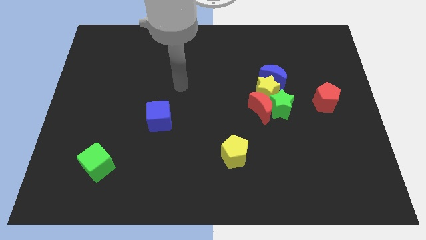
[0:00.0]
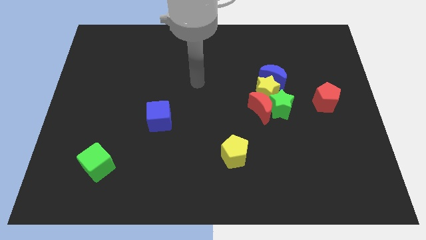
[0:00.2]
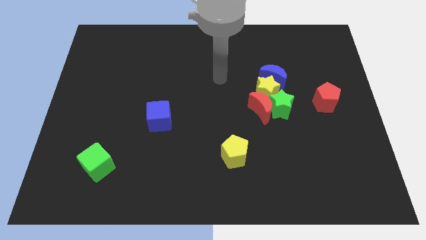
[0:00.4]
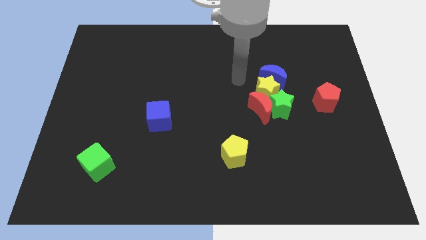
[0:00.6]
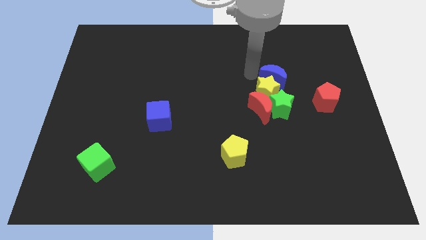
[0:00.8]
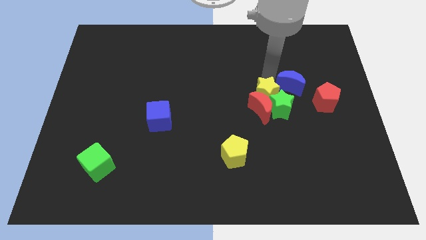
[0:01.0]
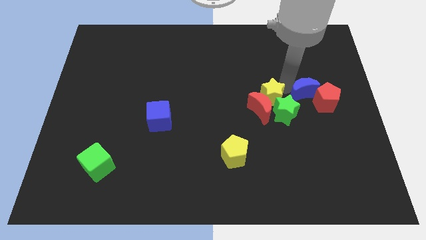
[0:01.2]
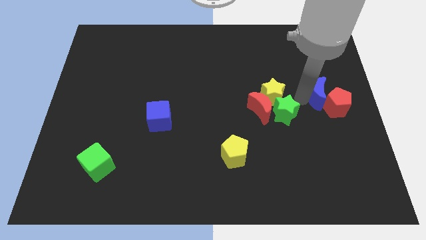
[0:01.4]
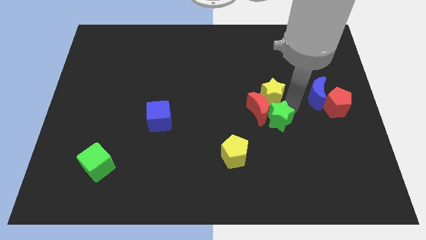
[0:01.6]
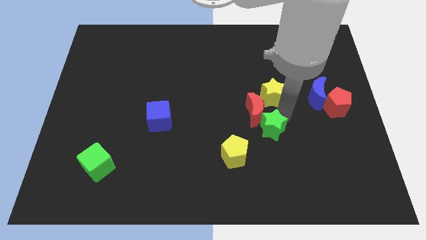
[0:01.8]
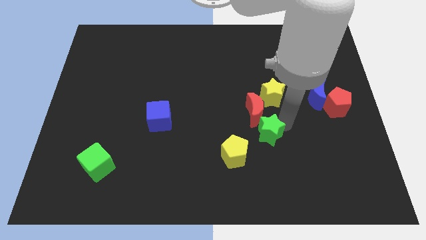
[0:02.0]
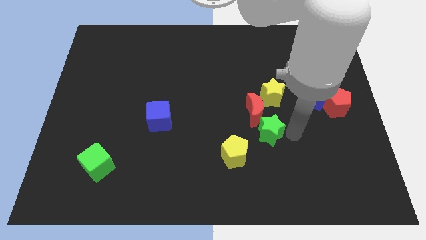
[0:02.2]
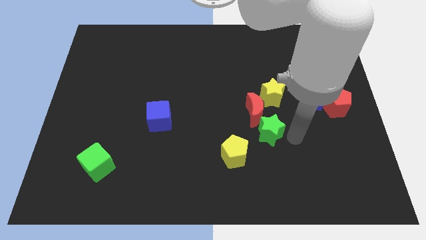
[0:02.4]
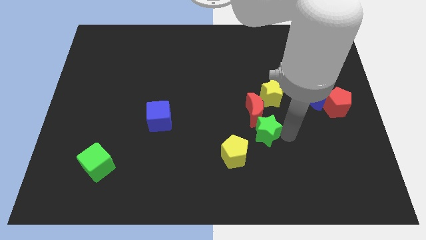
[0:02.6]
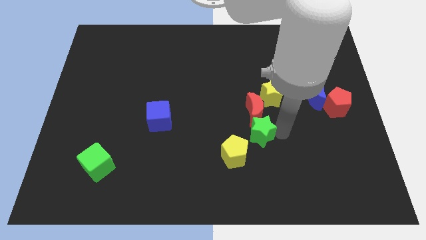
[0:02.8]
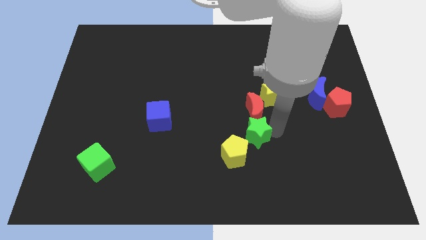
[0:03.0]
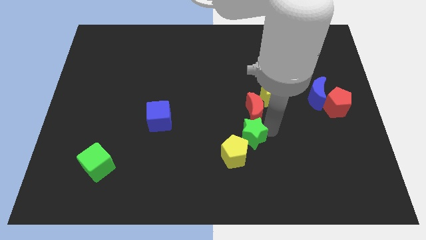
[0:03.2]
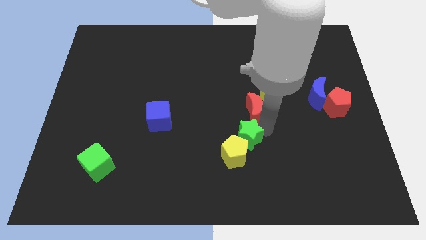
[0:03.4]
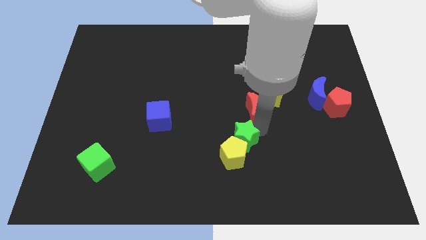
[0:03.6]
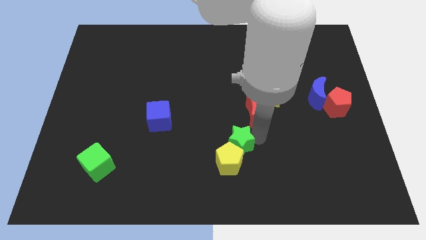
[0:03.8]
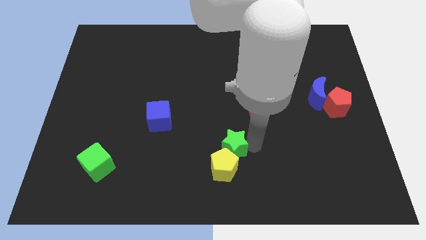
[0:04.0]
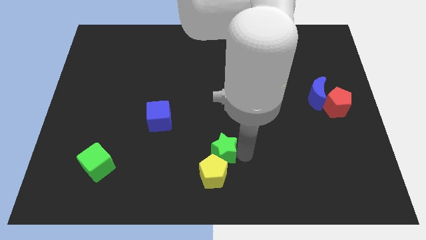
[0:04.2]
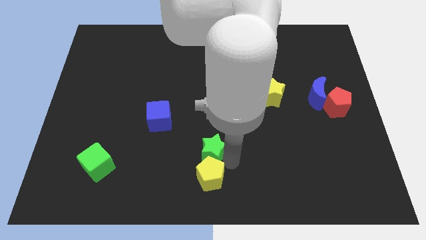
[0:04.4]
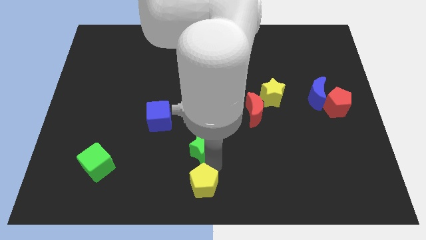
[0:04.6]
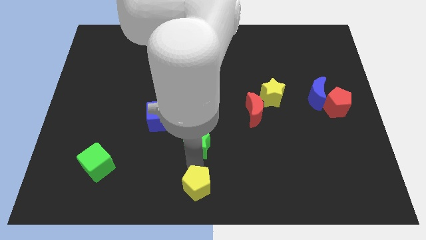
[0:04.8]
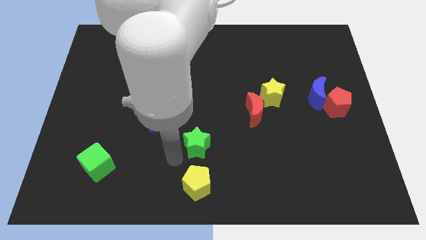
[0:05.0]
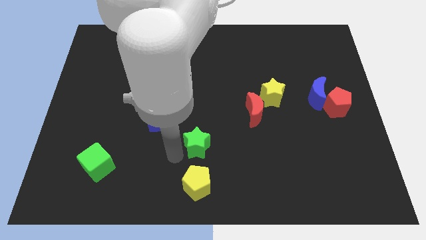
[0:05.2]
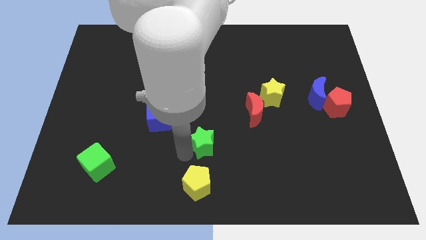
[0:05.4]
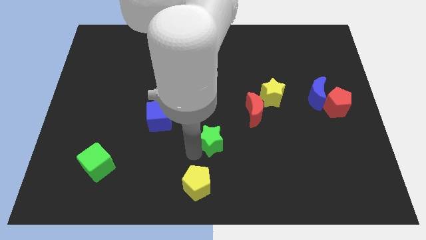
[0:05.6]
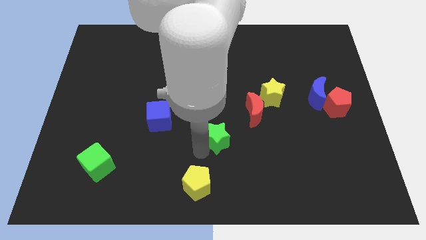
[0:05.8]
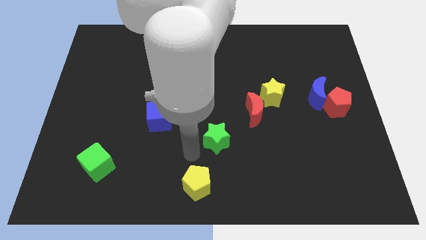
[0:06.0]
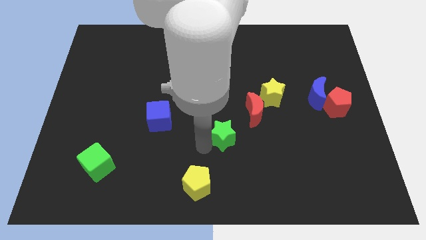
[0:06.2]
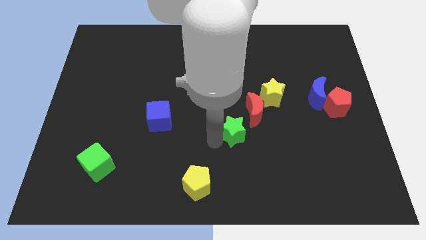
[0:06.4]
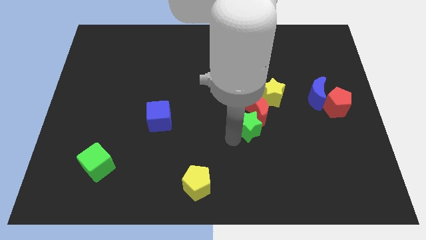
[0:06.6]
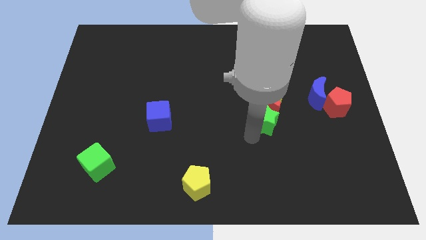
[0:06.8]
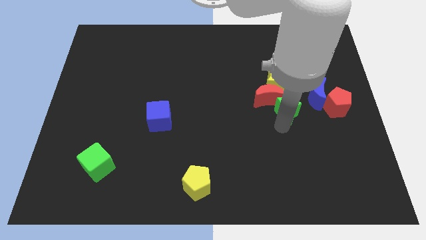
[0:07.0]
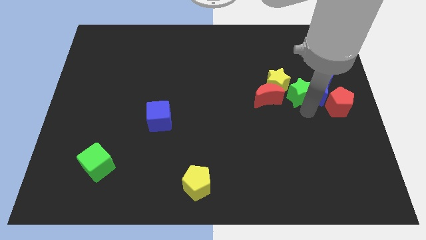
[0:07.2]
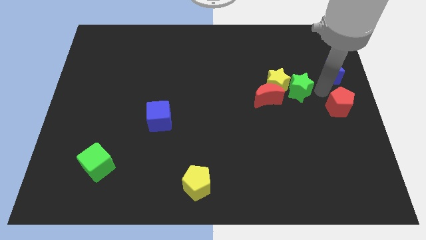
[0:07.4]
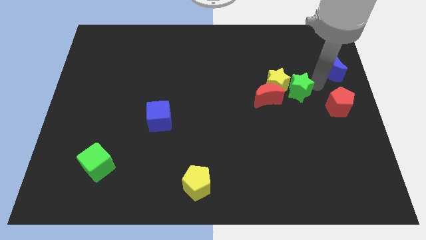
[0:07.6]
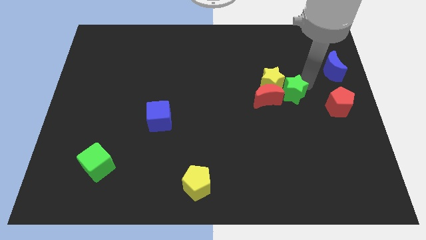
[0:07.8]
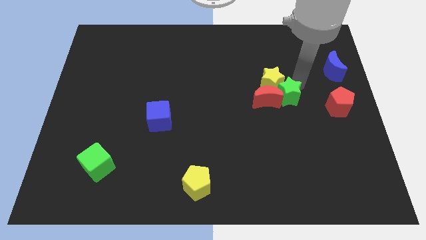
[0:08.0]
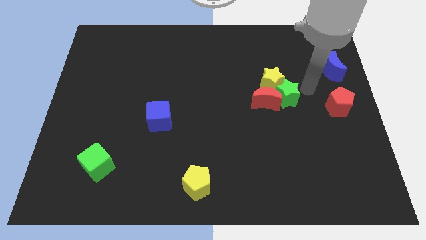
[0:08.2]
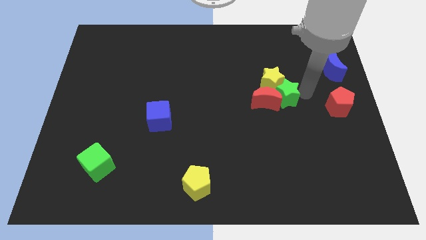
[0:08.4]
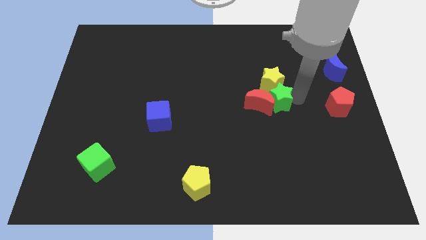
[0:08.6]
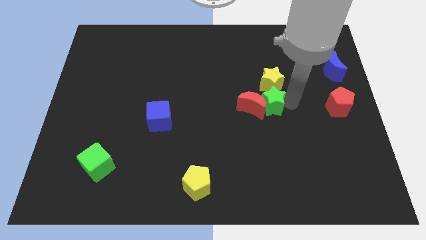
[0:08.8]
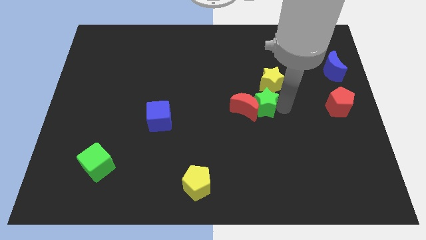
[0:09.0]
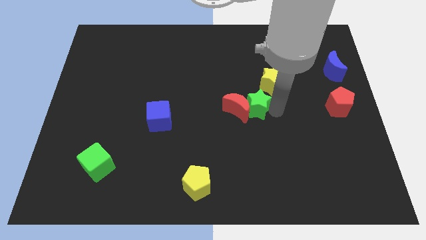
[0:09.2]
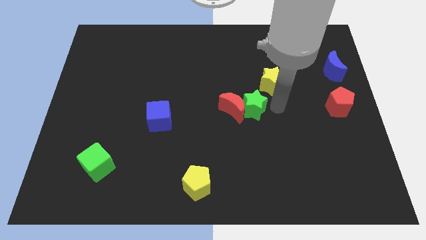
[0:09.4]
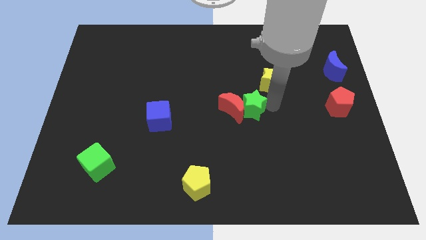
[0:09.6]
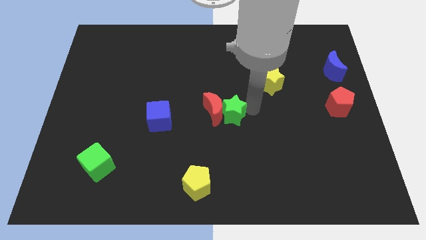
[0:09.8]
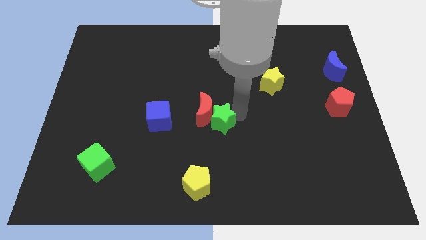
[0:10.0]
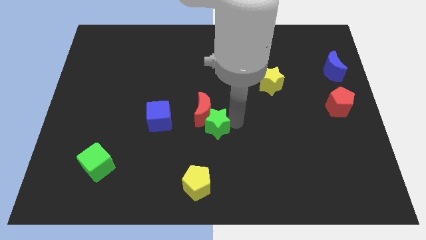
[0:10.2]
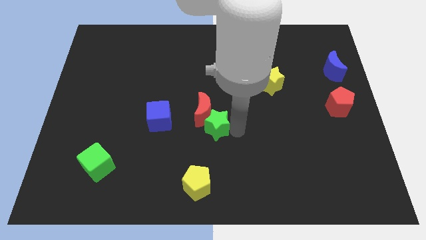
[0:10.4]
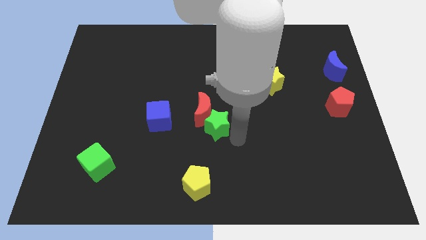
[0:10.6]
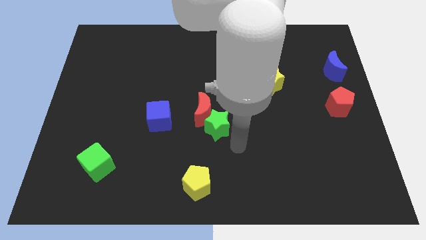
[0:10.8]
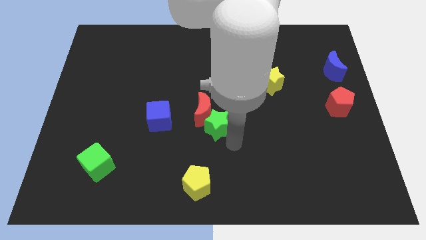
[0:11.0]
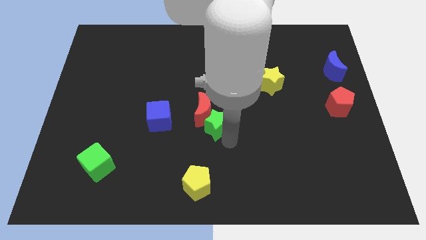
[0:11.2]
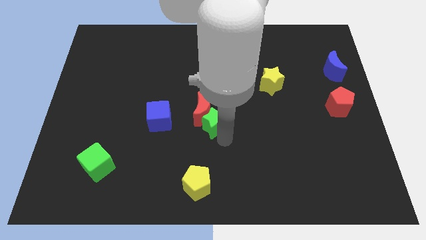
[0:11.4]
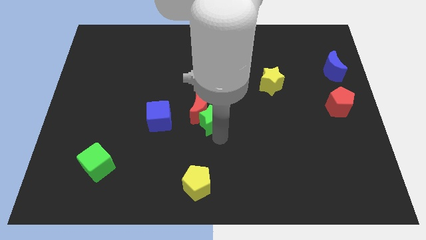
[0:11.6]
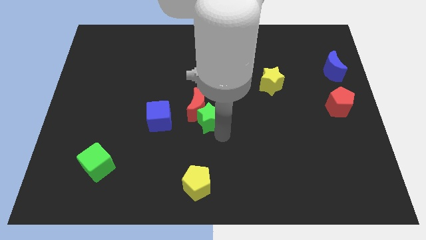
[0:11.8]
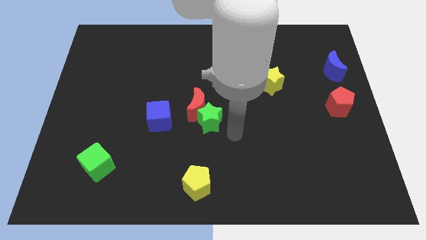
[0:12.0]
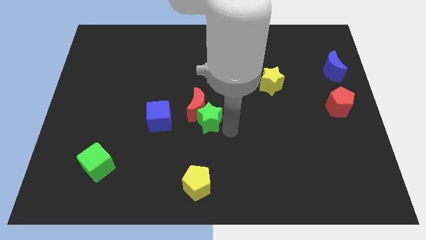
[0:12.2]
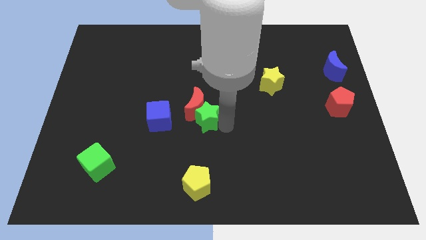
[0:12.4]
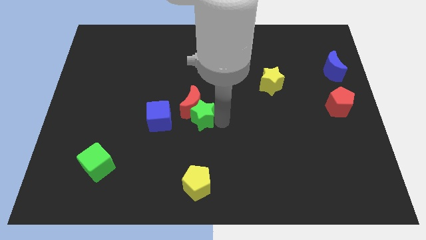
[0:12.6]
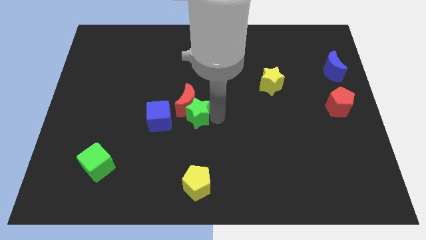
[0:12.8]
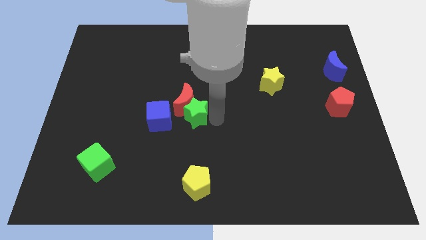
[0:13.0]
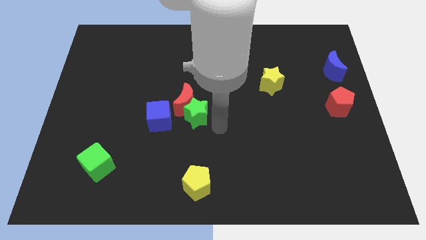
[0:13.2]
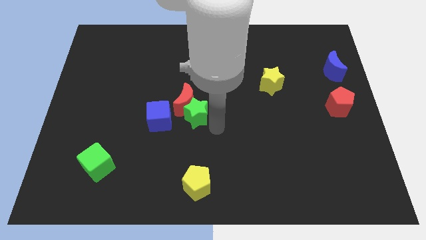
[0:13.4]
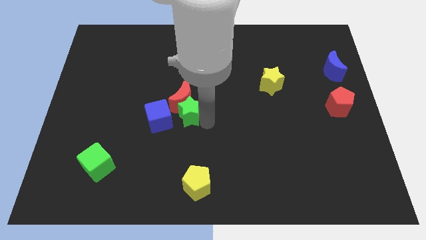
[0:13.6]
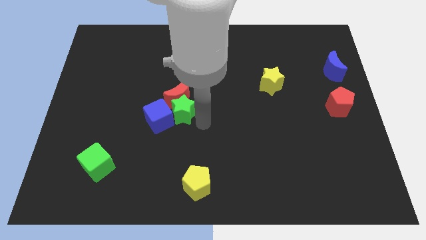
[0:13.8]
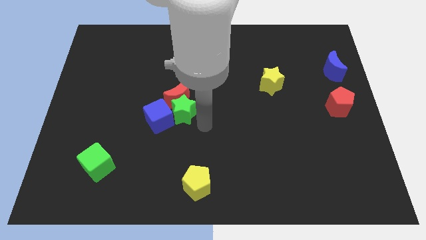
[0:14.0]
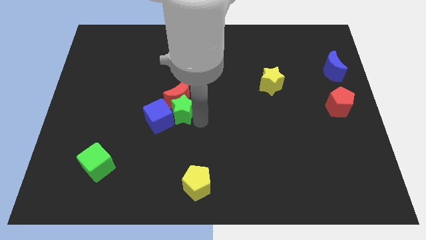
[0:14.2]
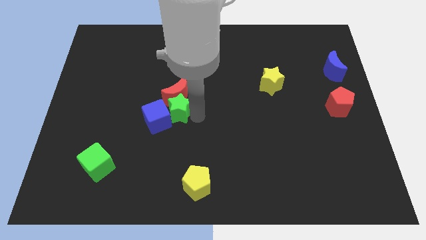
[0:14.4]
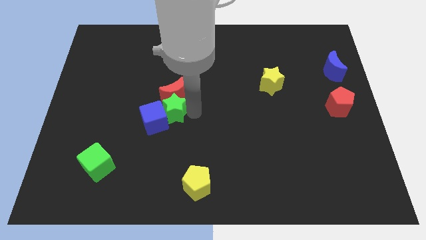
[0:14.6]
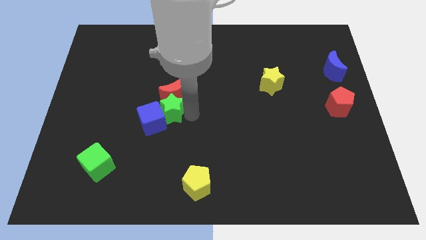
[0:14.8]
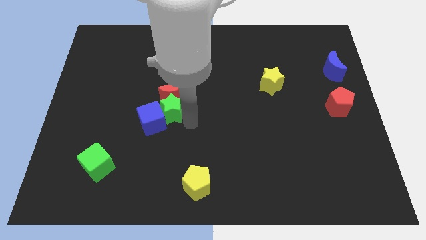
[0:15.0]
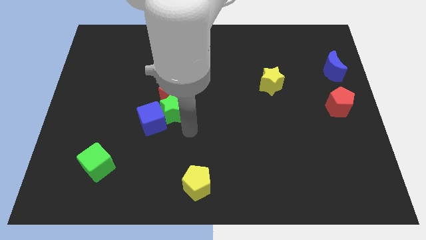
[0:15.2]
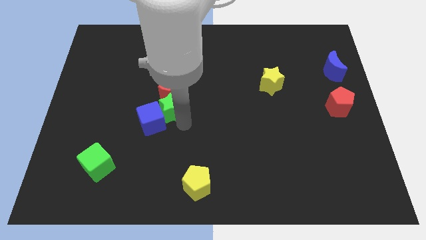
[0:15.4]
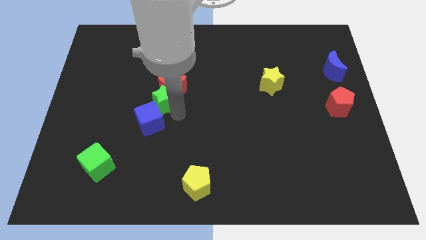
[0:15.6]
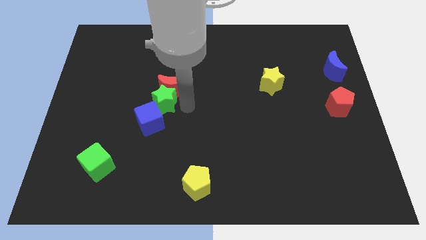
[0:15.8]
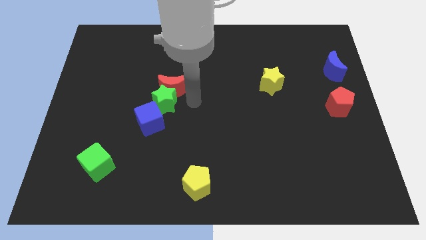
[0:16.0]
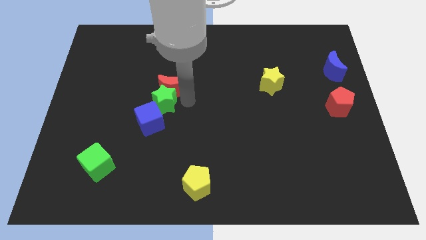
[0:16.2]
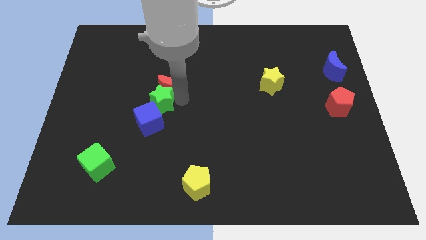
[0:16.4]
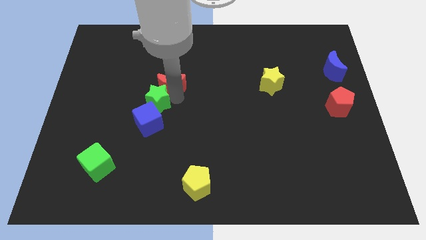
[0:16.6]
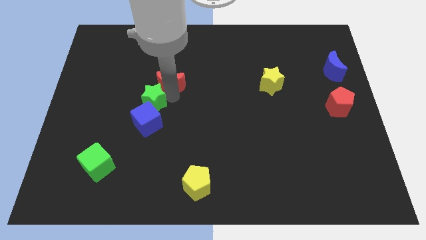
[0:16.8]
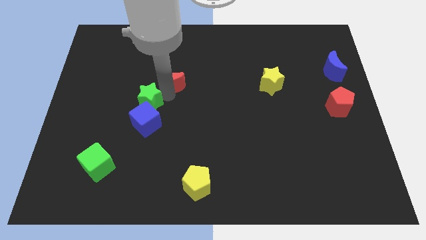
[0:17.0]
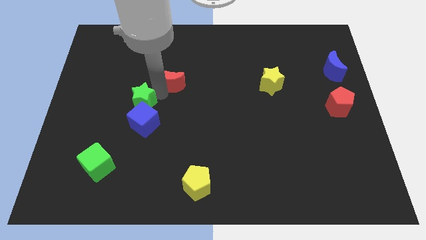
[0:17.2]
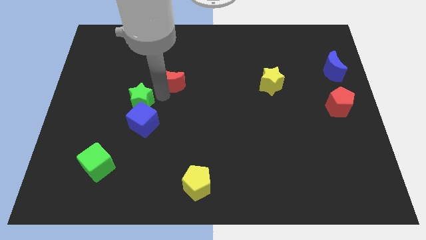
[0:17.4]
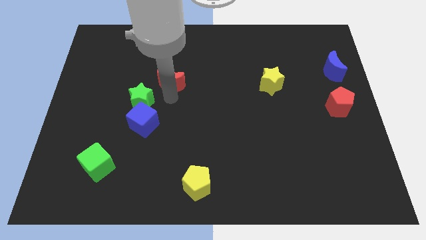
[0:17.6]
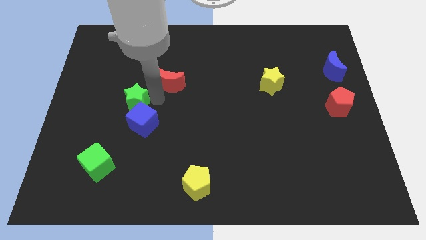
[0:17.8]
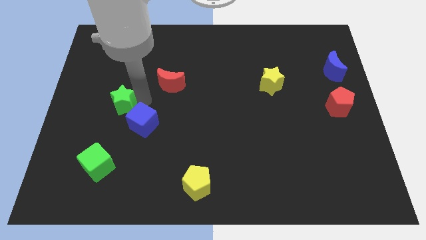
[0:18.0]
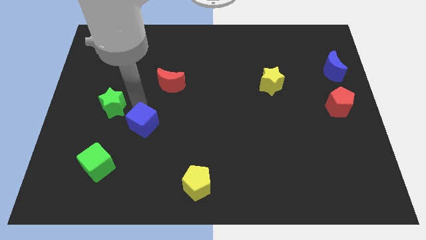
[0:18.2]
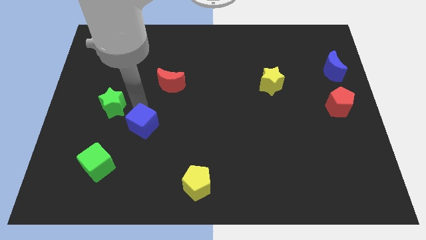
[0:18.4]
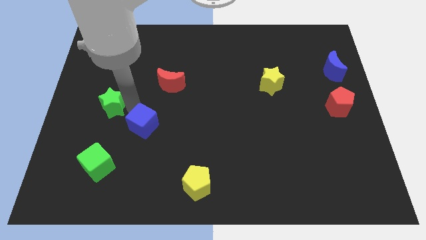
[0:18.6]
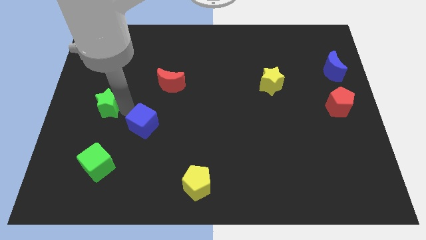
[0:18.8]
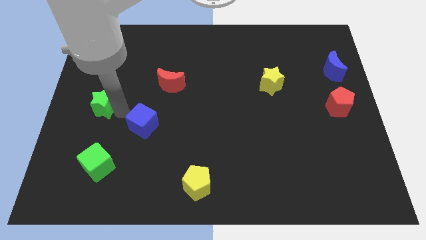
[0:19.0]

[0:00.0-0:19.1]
slide the green star to the center left
